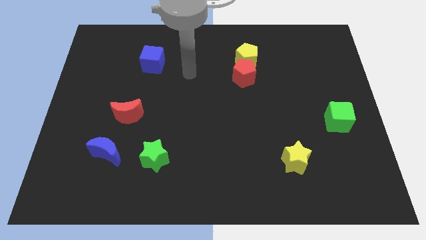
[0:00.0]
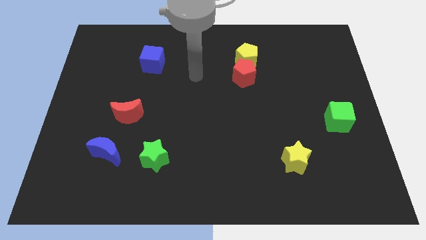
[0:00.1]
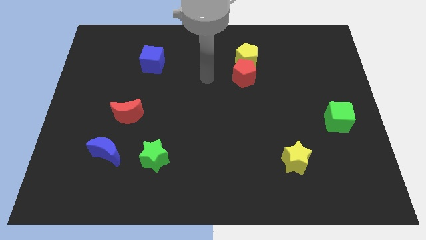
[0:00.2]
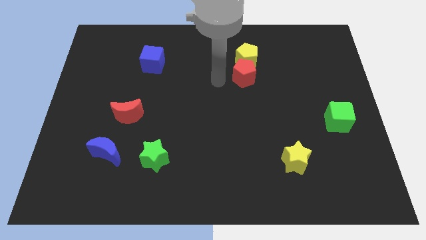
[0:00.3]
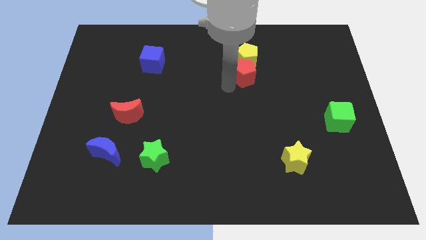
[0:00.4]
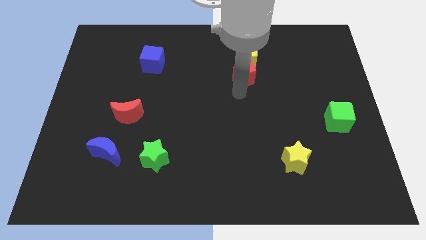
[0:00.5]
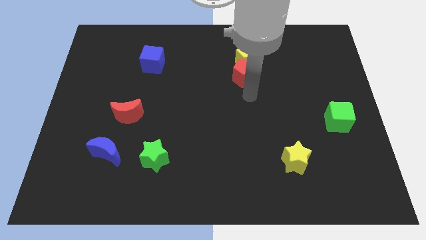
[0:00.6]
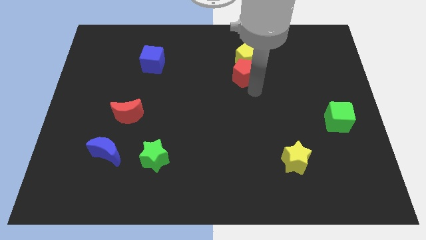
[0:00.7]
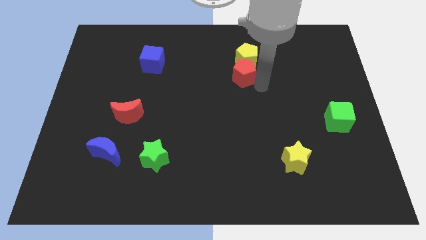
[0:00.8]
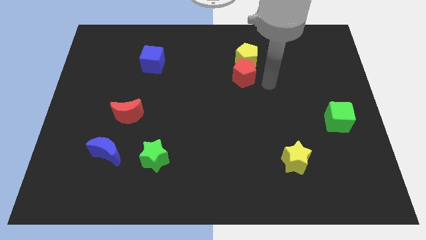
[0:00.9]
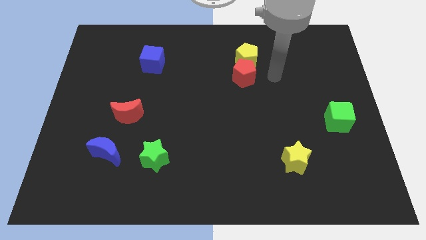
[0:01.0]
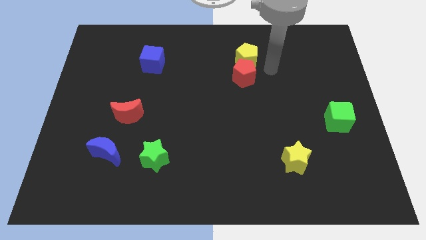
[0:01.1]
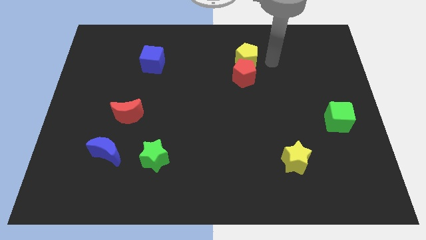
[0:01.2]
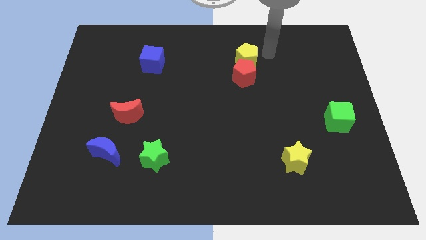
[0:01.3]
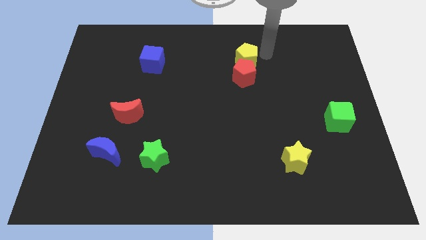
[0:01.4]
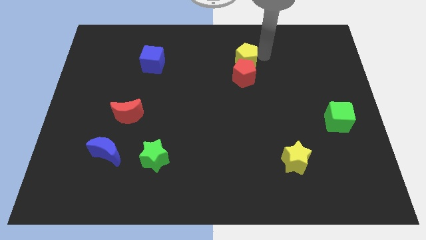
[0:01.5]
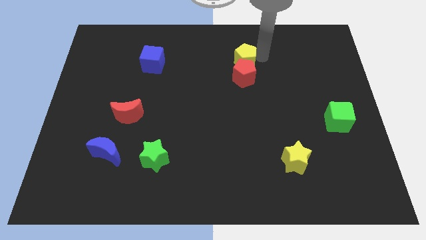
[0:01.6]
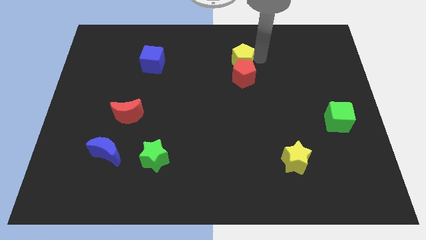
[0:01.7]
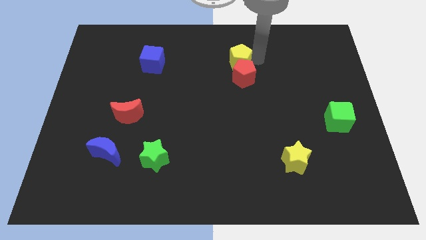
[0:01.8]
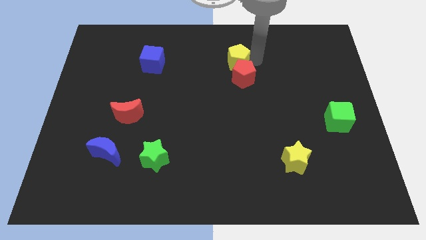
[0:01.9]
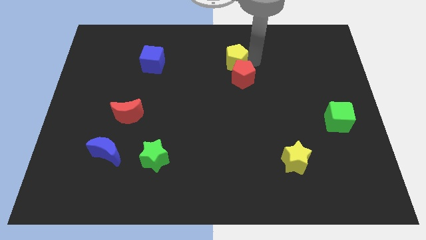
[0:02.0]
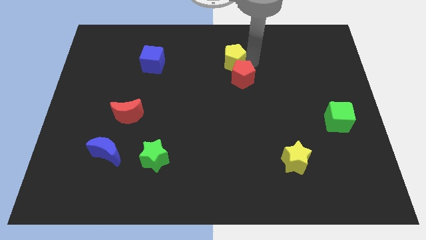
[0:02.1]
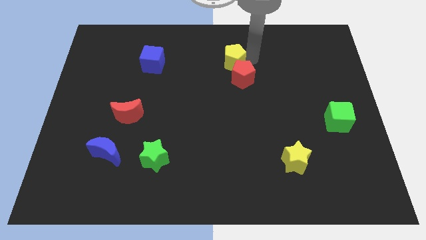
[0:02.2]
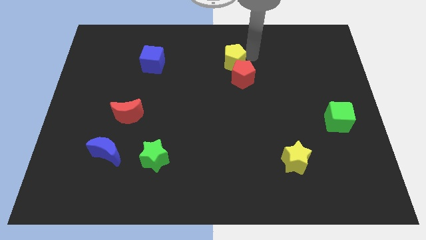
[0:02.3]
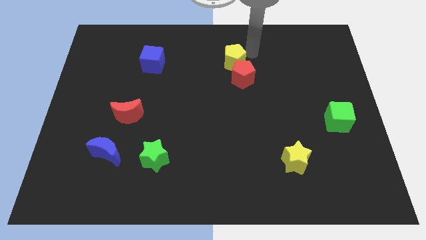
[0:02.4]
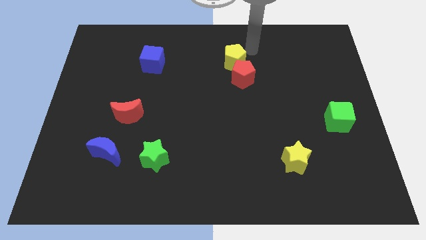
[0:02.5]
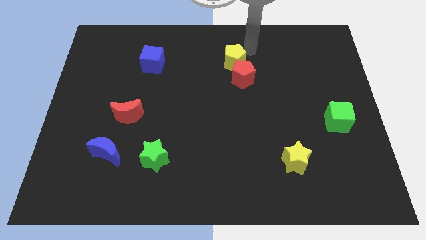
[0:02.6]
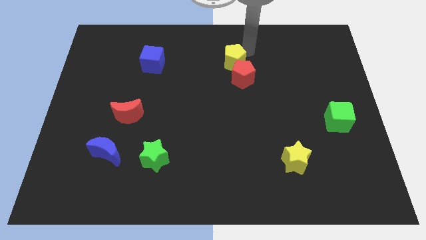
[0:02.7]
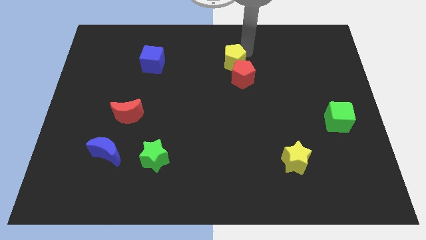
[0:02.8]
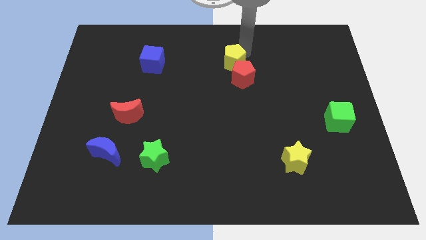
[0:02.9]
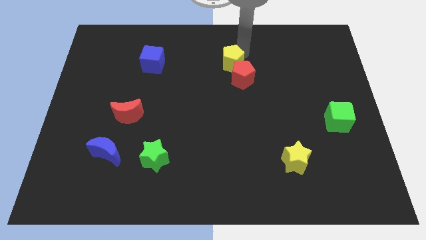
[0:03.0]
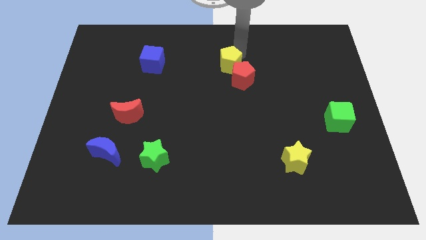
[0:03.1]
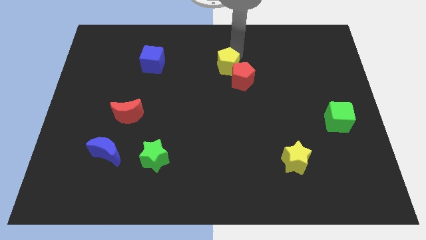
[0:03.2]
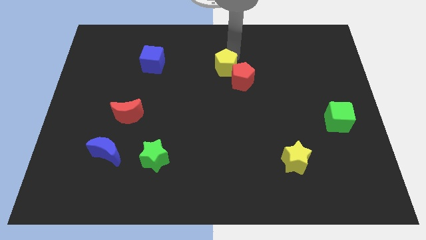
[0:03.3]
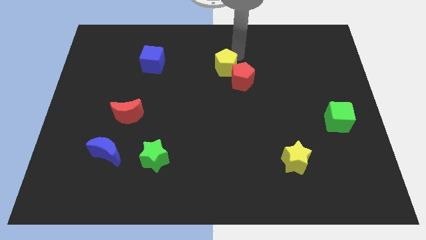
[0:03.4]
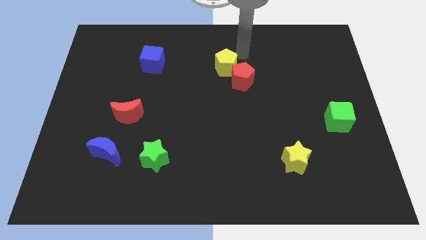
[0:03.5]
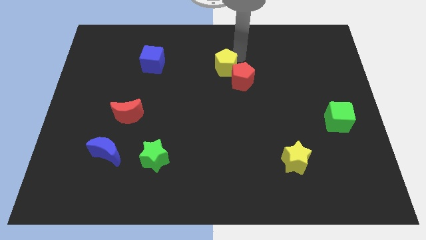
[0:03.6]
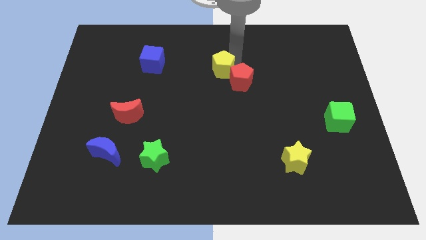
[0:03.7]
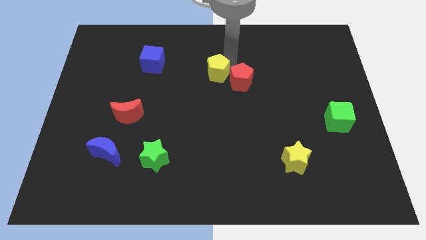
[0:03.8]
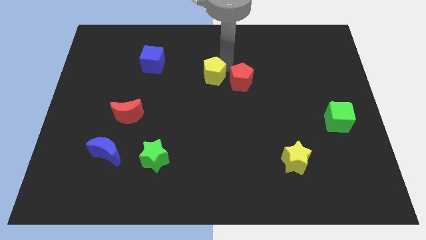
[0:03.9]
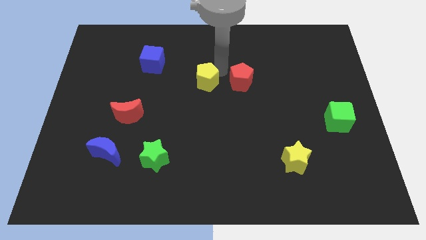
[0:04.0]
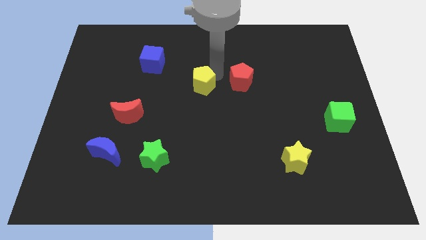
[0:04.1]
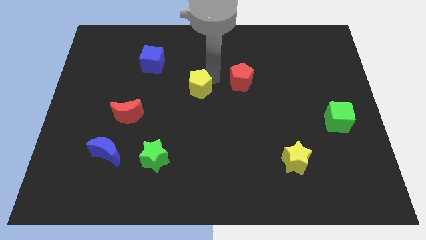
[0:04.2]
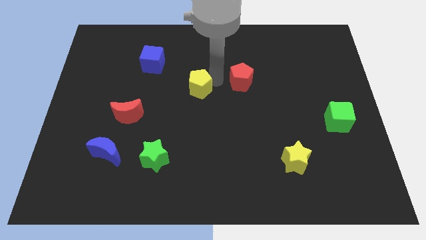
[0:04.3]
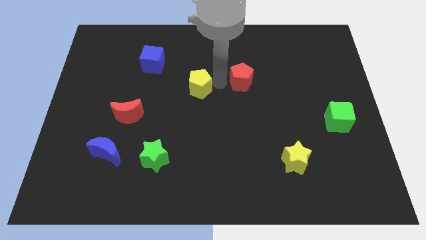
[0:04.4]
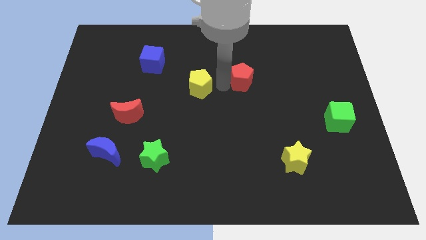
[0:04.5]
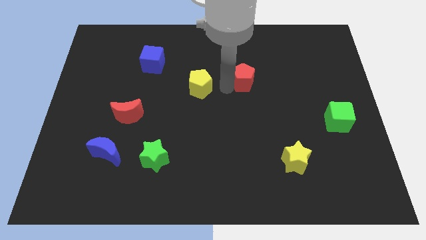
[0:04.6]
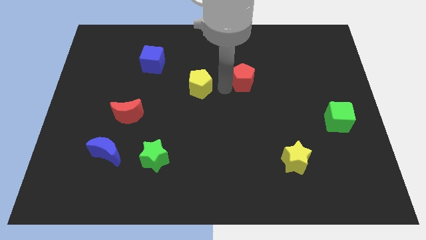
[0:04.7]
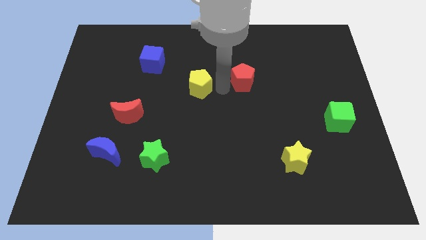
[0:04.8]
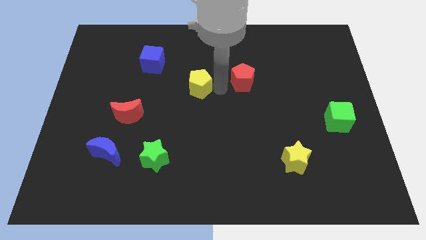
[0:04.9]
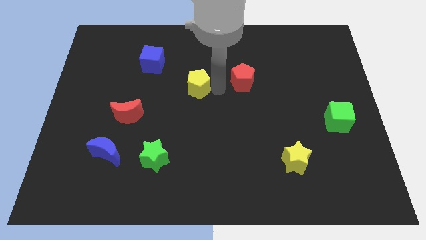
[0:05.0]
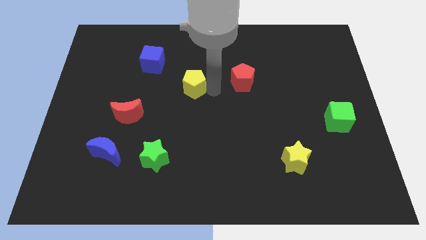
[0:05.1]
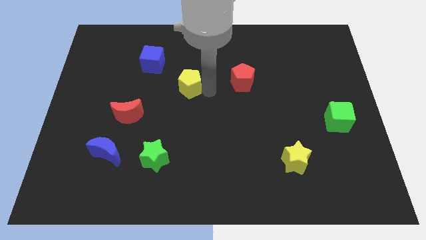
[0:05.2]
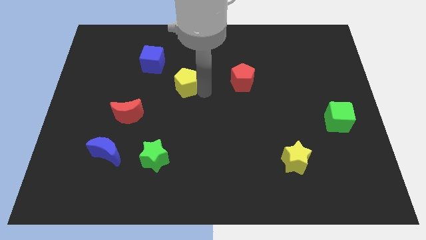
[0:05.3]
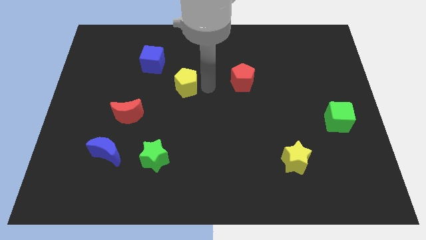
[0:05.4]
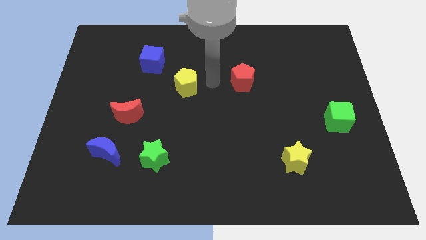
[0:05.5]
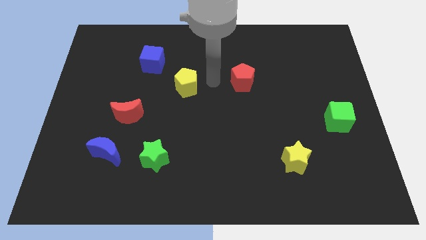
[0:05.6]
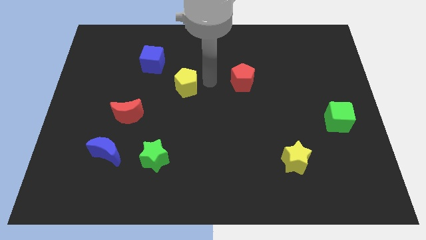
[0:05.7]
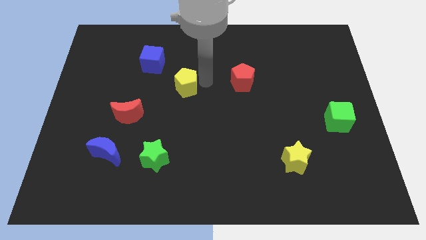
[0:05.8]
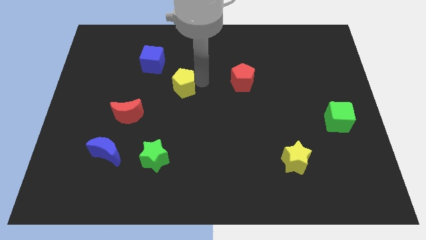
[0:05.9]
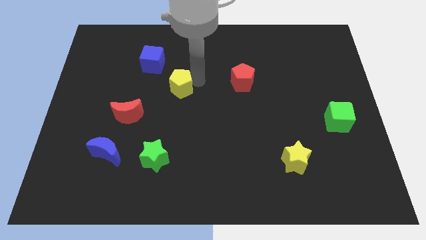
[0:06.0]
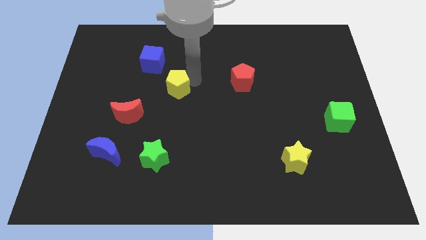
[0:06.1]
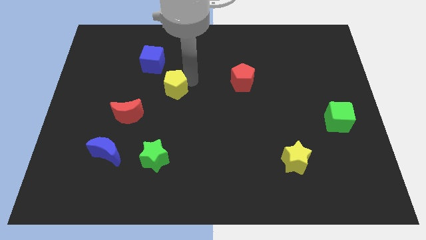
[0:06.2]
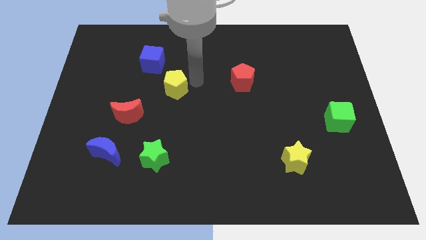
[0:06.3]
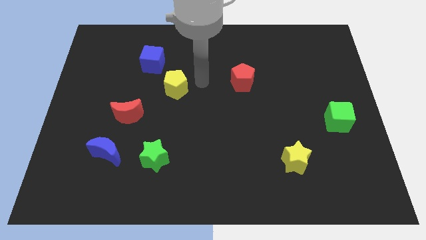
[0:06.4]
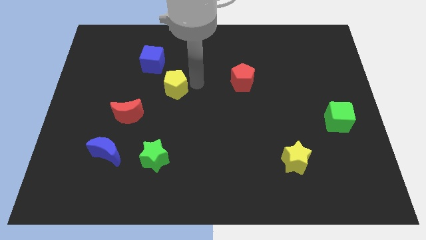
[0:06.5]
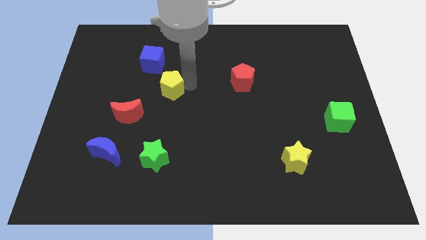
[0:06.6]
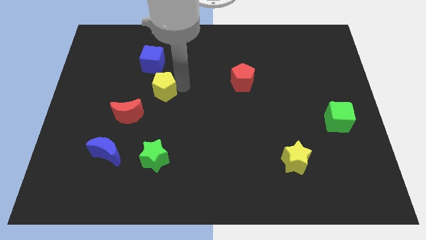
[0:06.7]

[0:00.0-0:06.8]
move the yellow pentagon below the blue cube

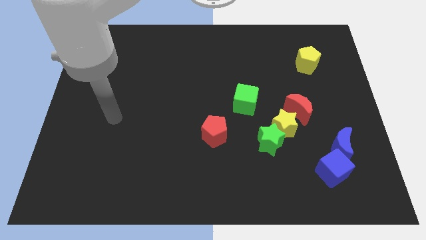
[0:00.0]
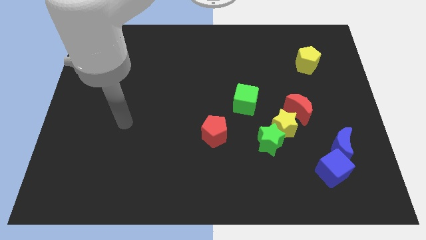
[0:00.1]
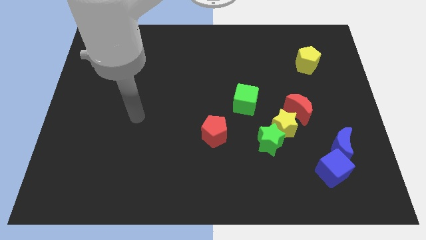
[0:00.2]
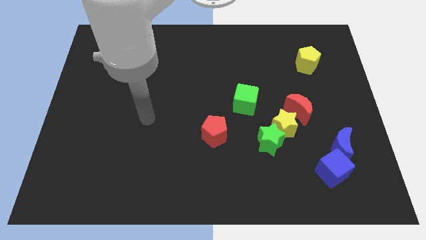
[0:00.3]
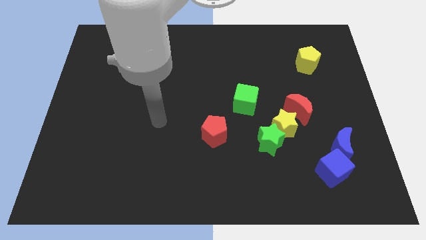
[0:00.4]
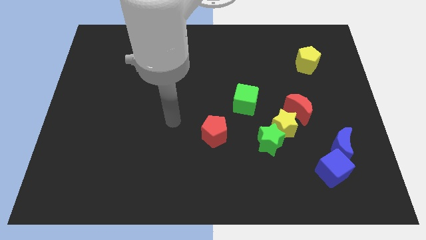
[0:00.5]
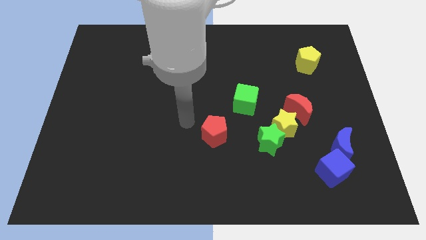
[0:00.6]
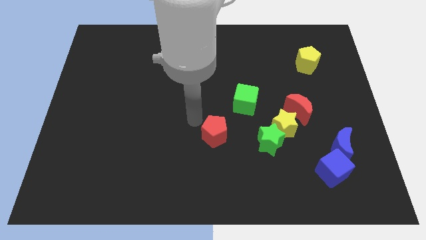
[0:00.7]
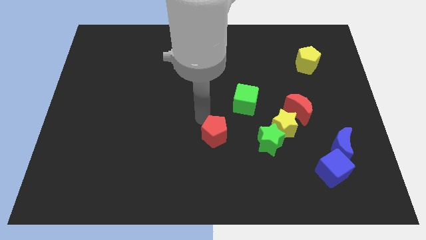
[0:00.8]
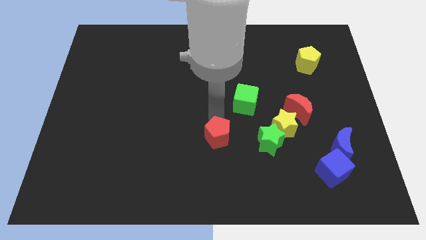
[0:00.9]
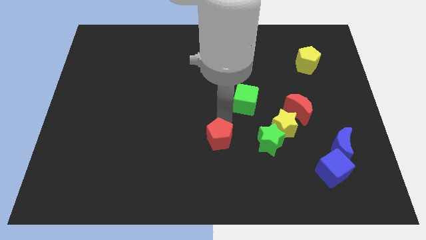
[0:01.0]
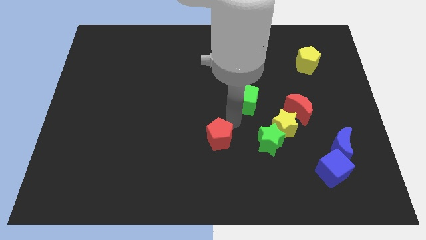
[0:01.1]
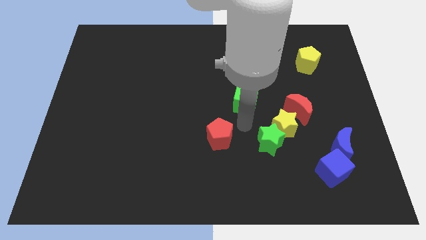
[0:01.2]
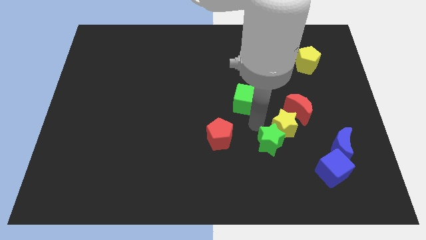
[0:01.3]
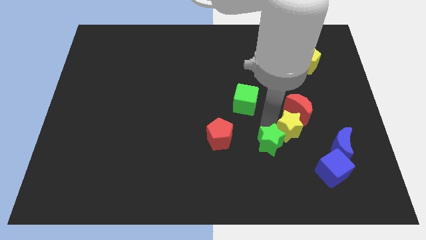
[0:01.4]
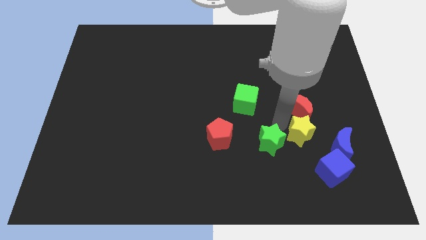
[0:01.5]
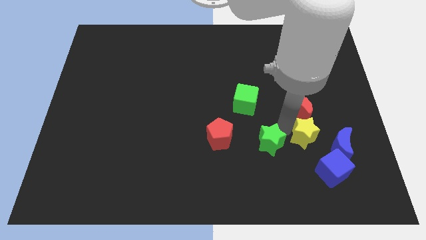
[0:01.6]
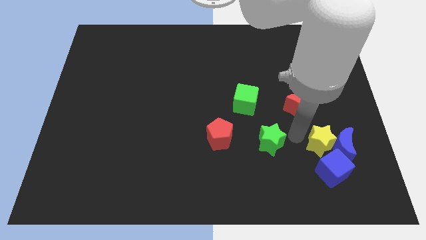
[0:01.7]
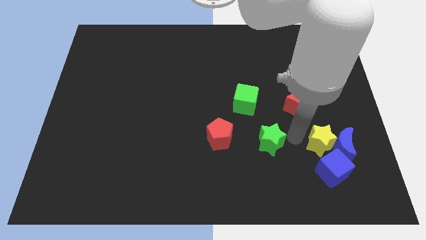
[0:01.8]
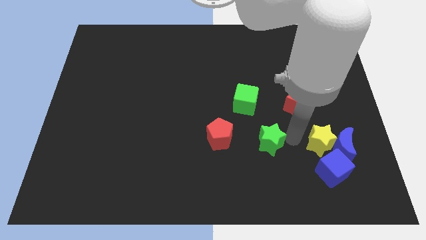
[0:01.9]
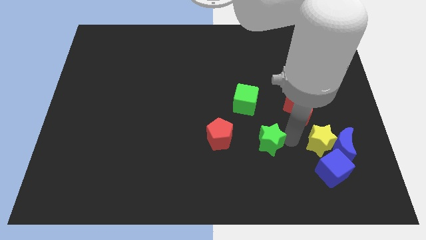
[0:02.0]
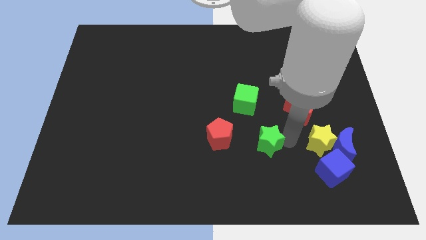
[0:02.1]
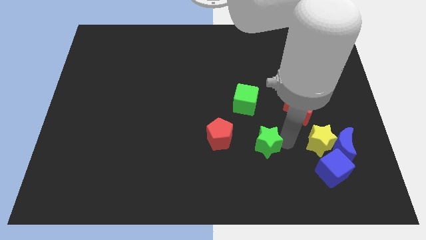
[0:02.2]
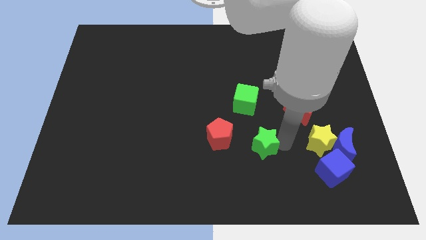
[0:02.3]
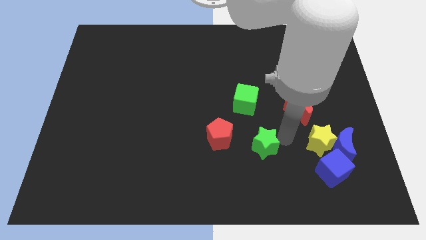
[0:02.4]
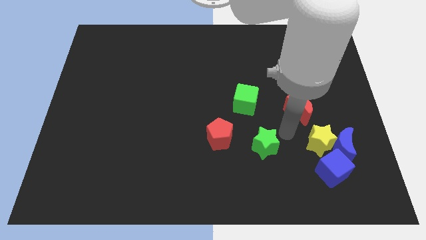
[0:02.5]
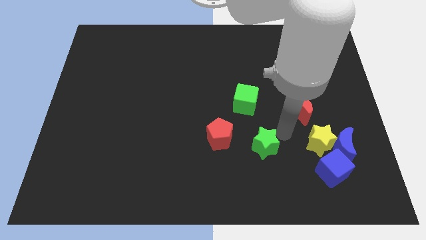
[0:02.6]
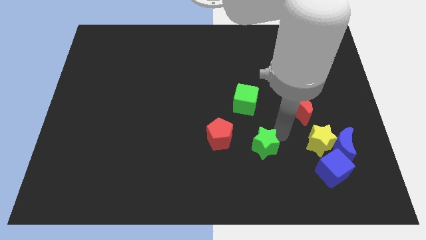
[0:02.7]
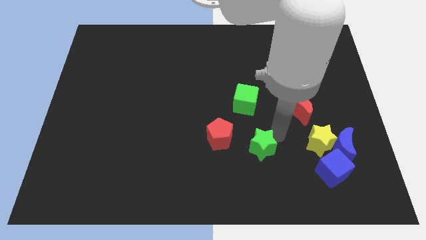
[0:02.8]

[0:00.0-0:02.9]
put the green star diagonally down and to the right of the red pentagon
